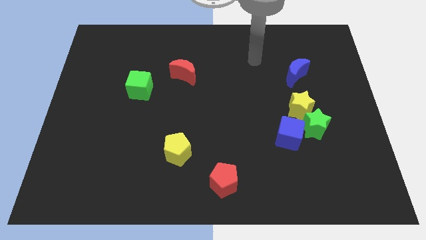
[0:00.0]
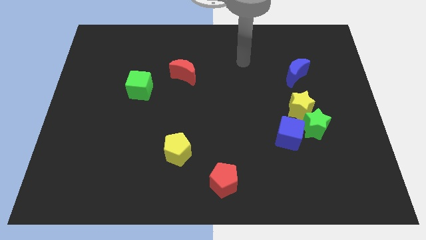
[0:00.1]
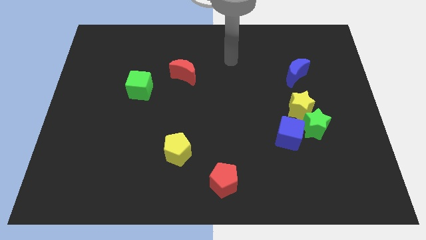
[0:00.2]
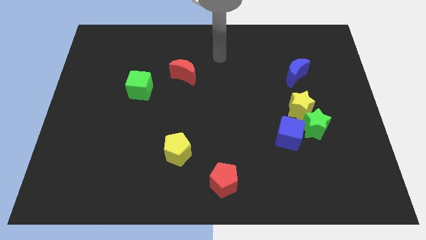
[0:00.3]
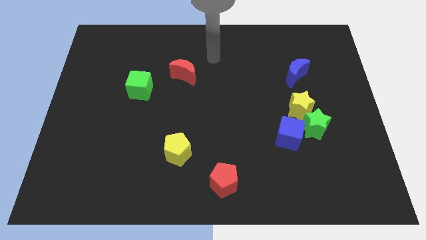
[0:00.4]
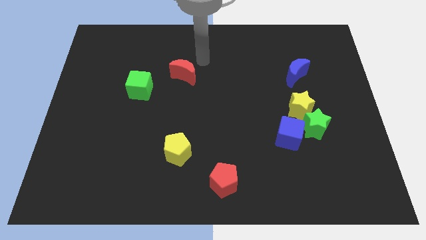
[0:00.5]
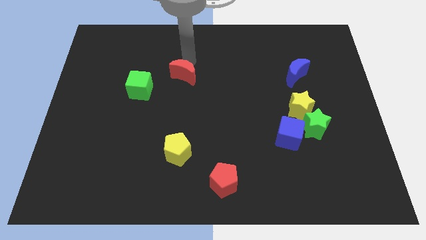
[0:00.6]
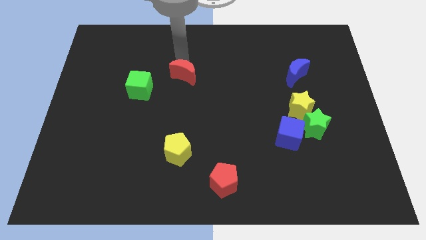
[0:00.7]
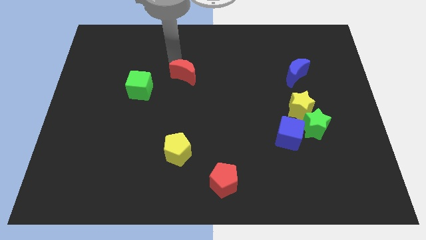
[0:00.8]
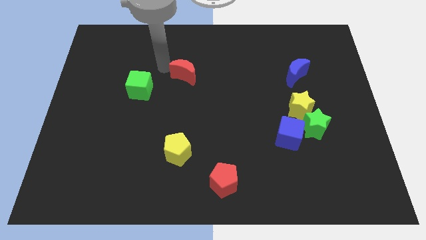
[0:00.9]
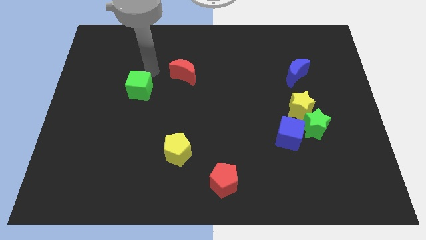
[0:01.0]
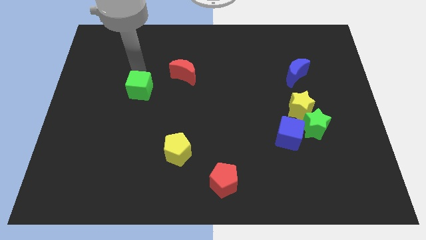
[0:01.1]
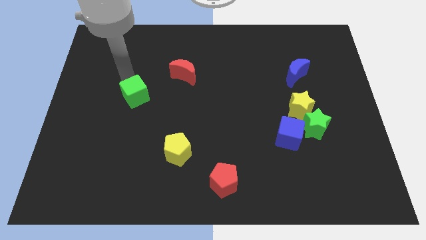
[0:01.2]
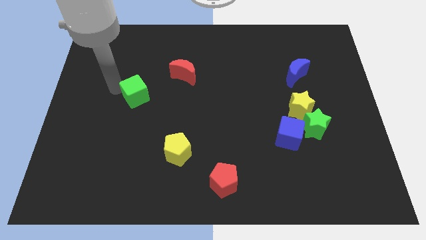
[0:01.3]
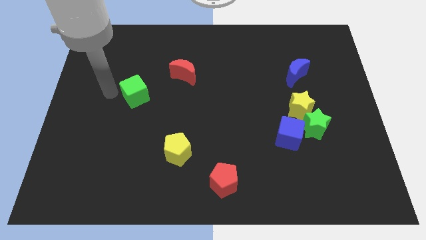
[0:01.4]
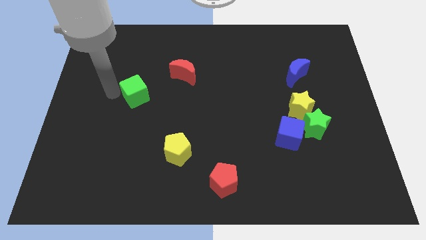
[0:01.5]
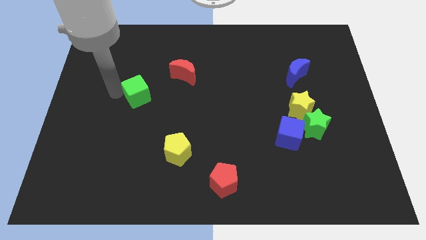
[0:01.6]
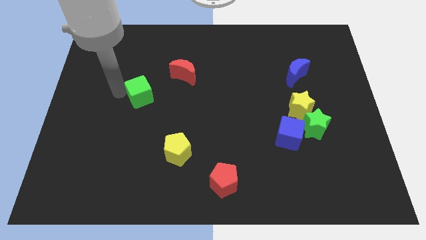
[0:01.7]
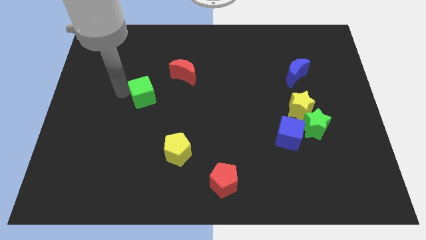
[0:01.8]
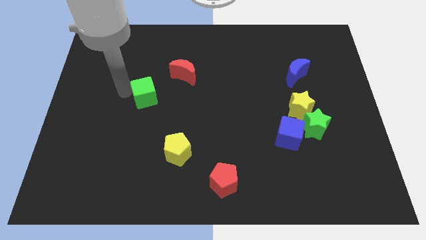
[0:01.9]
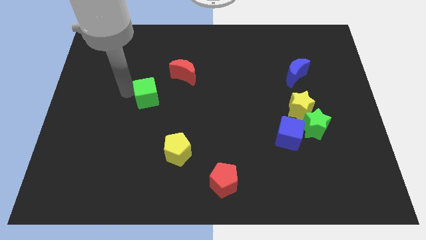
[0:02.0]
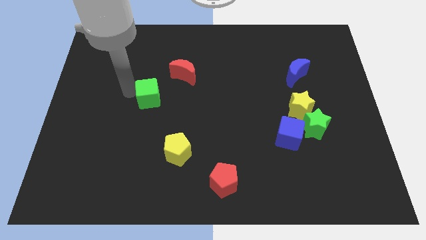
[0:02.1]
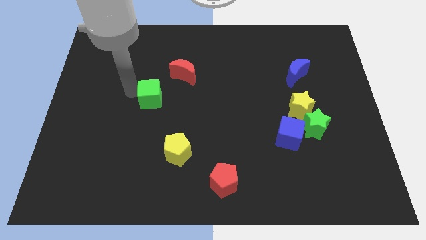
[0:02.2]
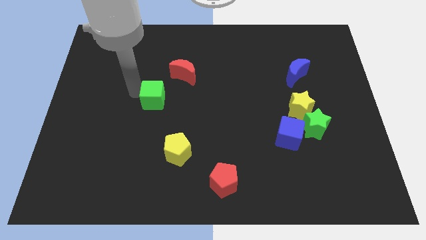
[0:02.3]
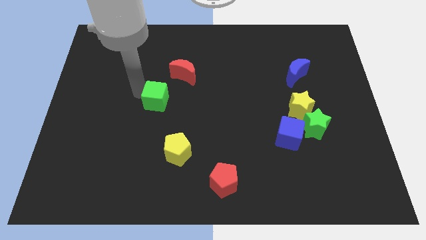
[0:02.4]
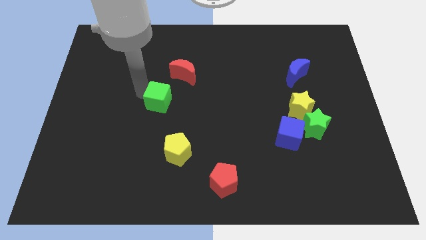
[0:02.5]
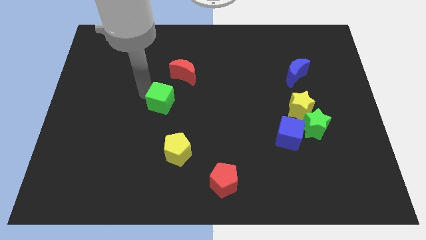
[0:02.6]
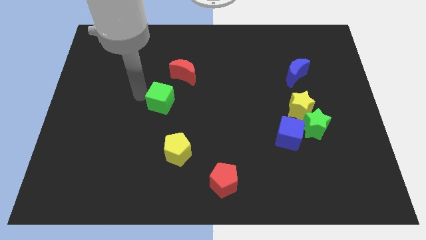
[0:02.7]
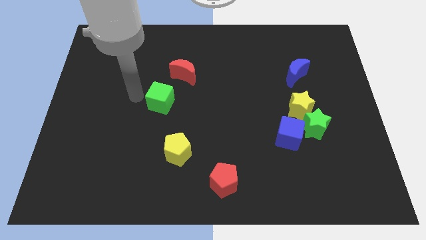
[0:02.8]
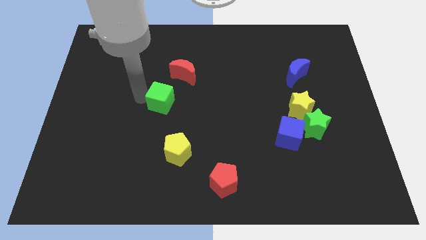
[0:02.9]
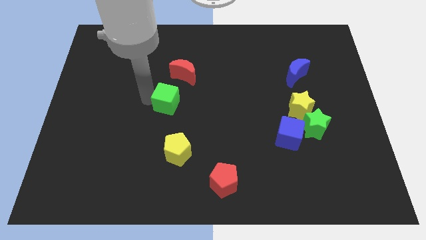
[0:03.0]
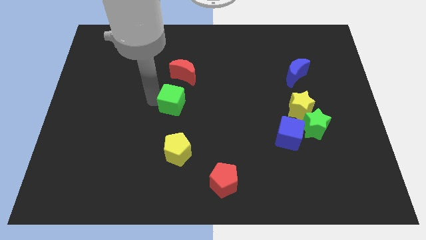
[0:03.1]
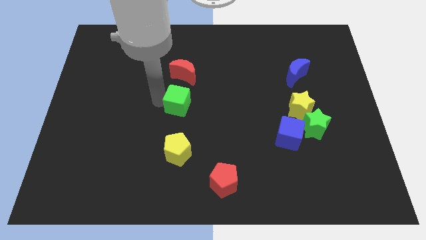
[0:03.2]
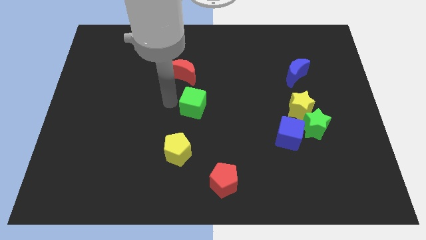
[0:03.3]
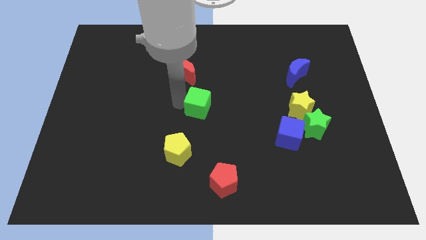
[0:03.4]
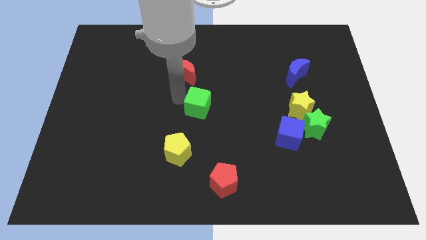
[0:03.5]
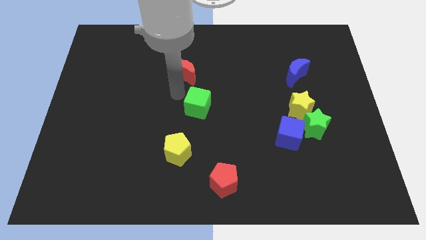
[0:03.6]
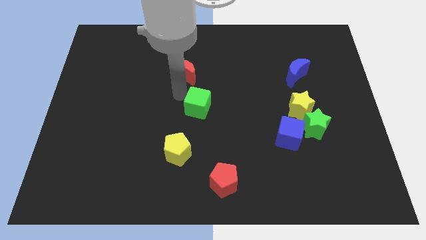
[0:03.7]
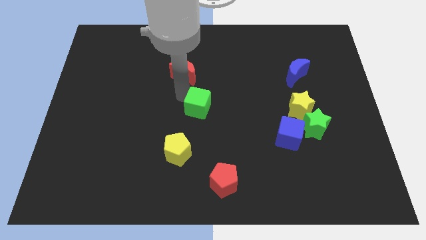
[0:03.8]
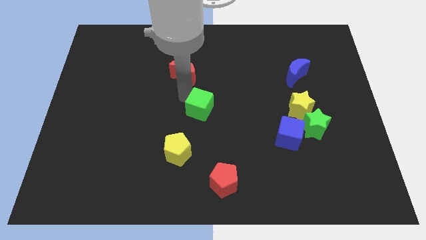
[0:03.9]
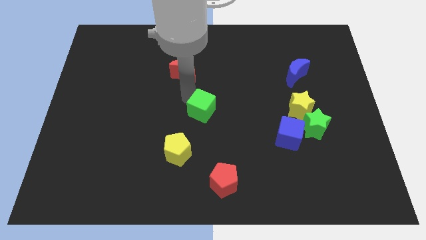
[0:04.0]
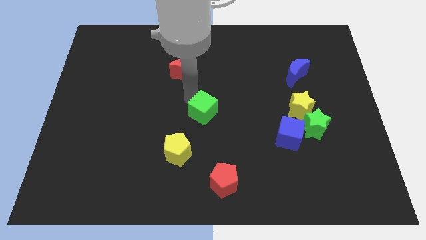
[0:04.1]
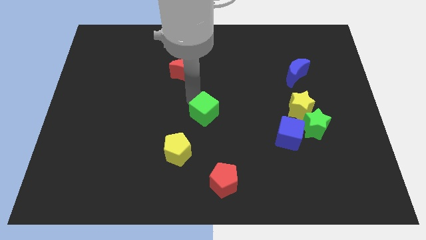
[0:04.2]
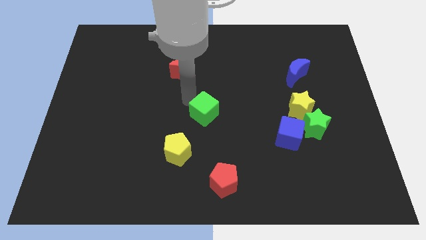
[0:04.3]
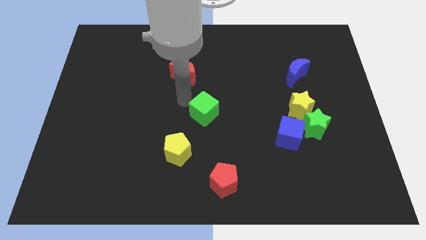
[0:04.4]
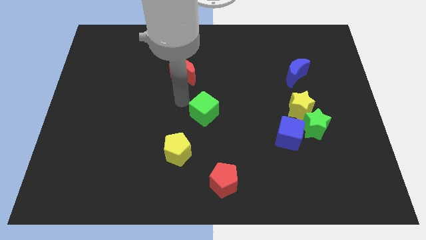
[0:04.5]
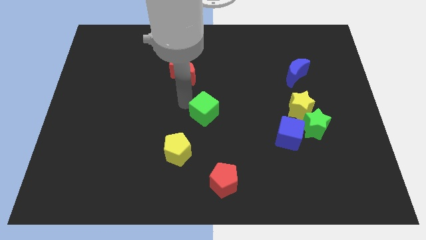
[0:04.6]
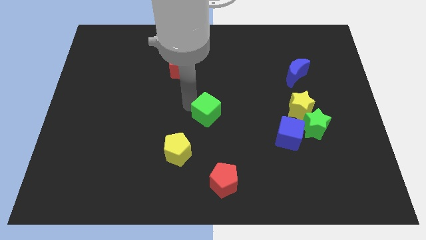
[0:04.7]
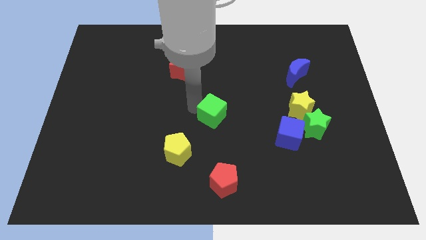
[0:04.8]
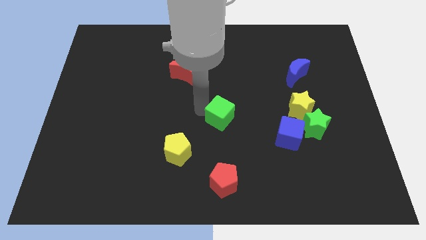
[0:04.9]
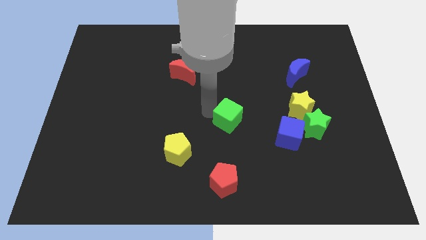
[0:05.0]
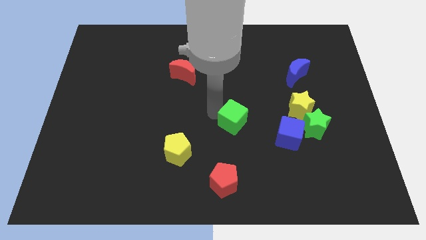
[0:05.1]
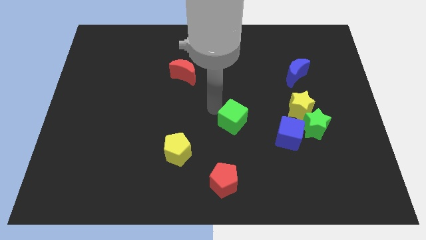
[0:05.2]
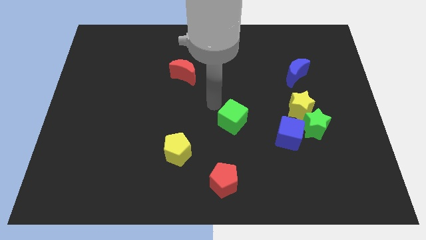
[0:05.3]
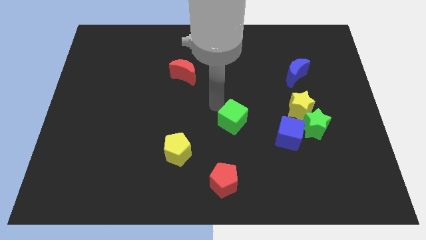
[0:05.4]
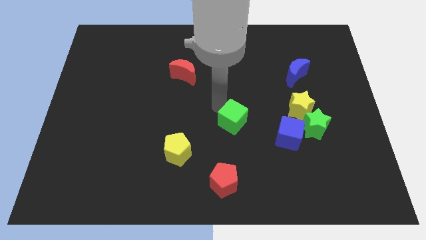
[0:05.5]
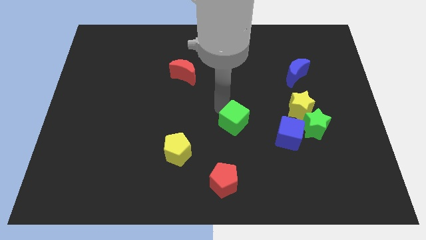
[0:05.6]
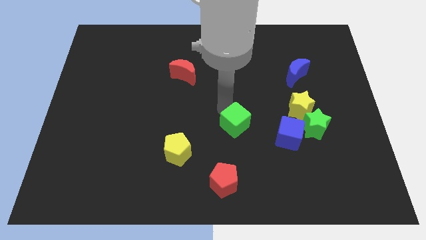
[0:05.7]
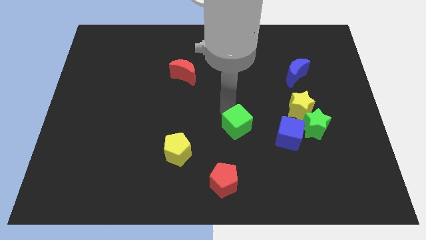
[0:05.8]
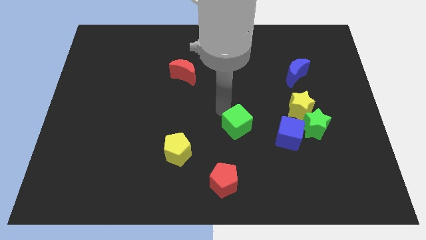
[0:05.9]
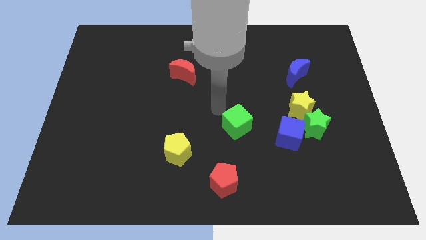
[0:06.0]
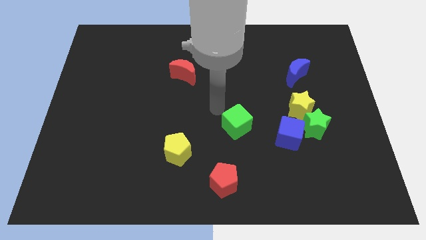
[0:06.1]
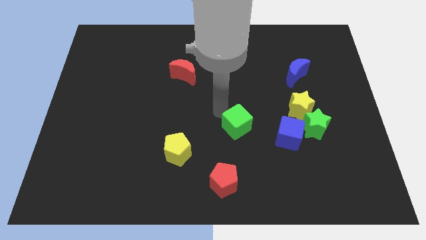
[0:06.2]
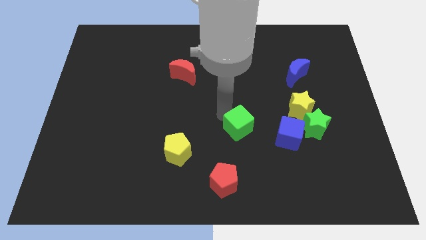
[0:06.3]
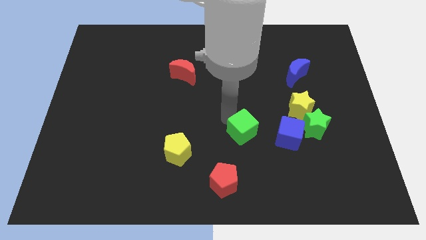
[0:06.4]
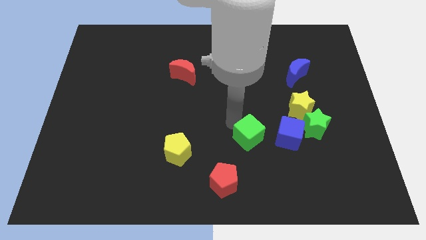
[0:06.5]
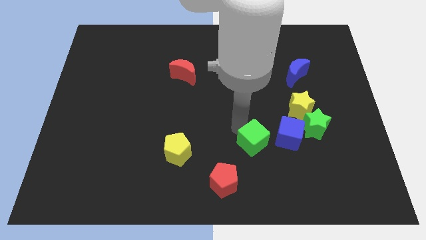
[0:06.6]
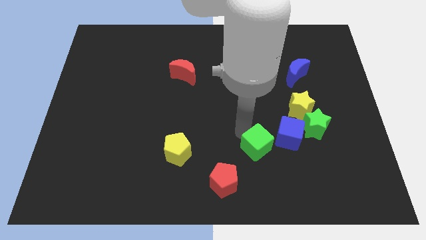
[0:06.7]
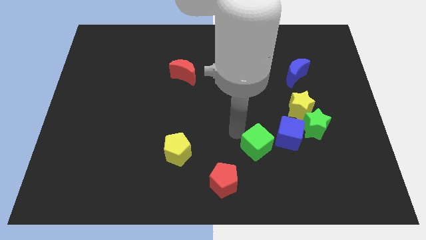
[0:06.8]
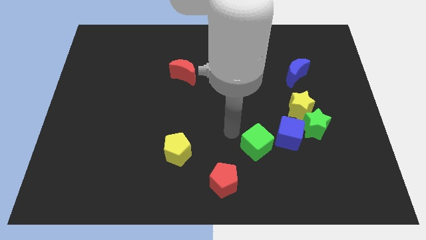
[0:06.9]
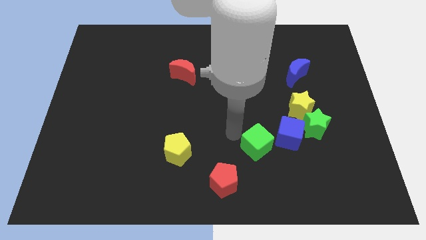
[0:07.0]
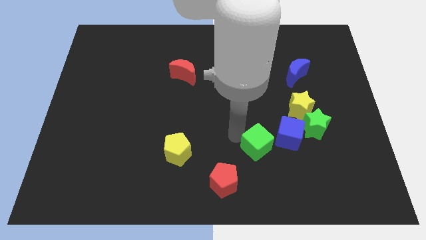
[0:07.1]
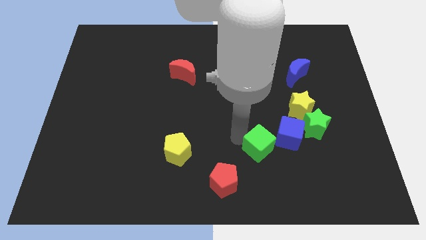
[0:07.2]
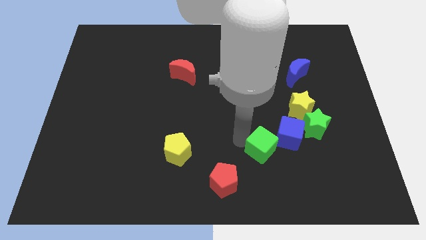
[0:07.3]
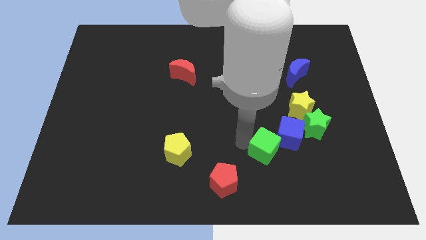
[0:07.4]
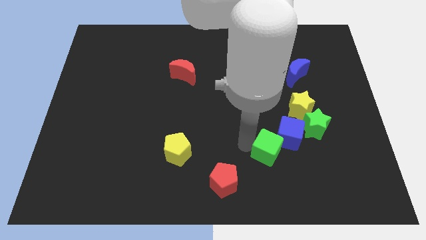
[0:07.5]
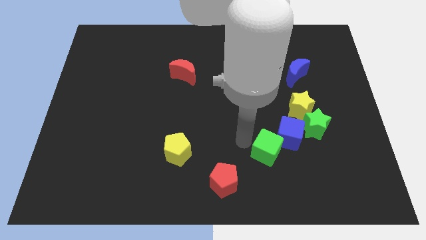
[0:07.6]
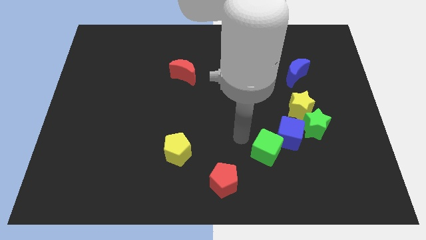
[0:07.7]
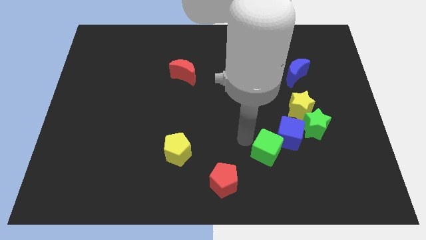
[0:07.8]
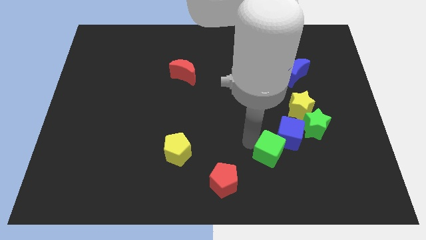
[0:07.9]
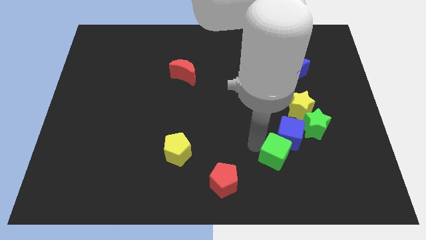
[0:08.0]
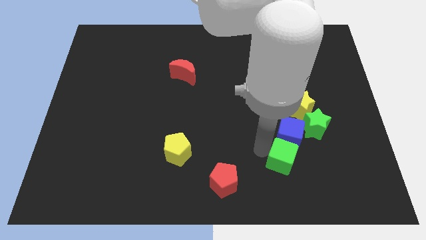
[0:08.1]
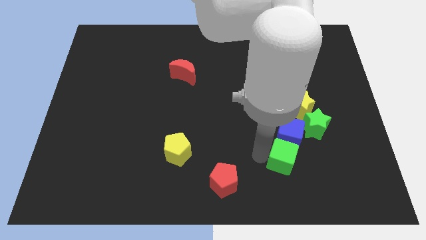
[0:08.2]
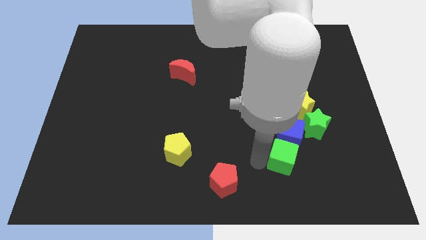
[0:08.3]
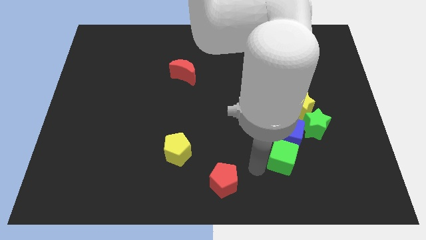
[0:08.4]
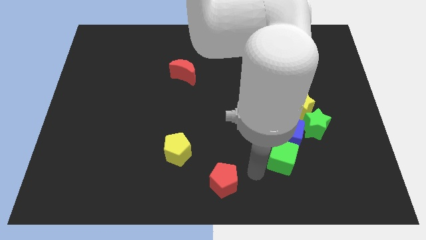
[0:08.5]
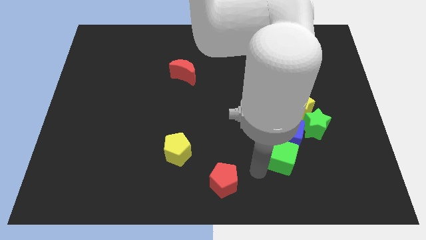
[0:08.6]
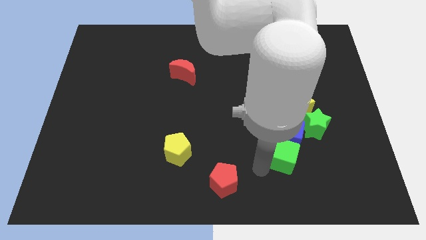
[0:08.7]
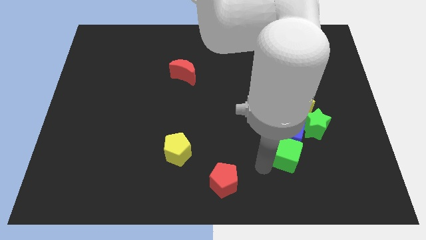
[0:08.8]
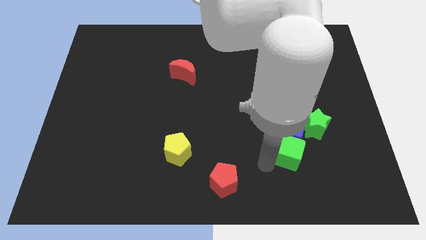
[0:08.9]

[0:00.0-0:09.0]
push the green cube below the yellow star
